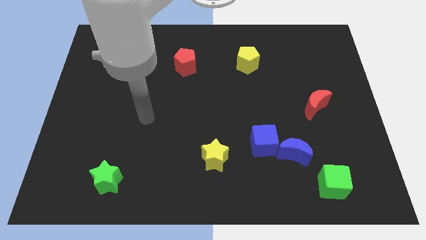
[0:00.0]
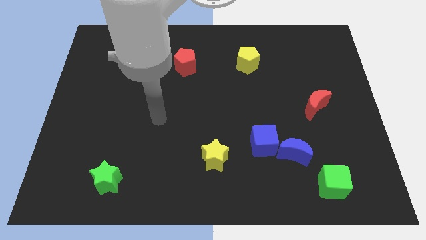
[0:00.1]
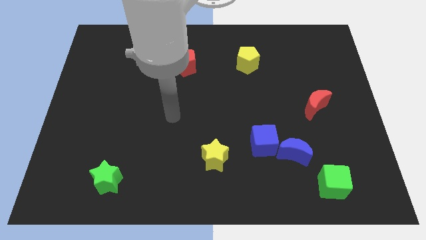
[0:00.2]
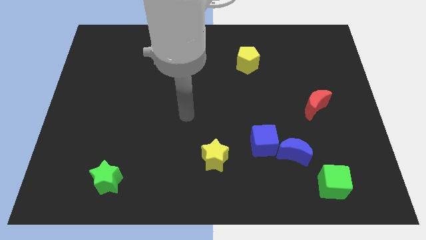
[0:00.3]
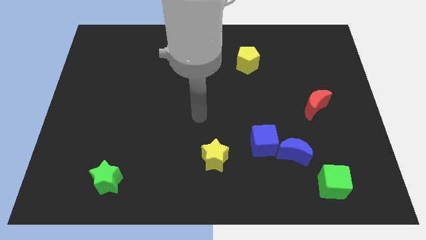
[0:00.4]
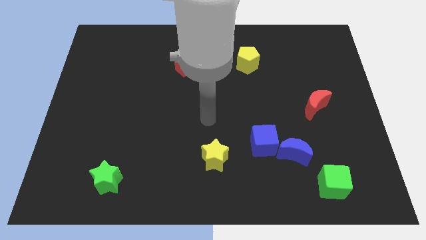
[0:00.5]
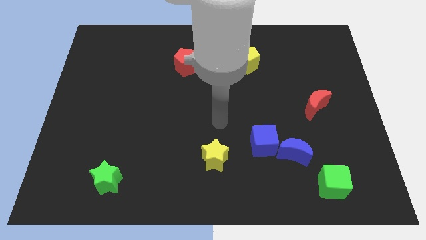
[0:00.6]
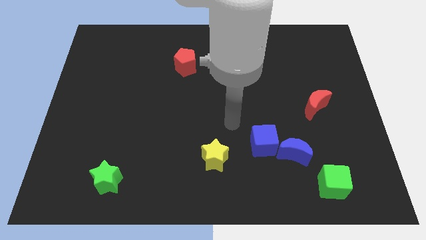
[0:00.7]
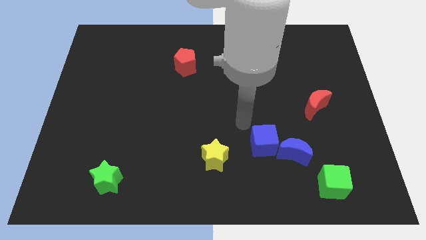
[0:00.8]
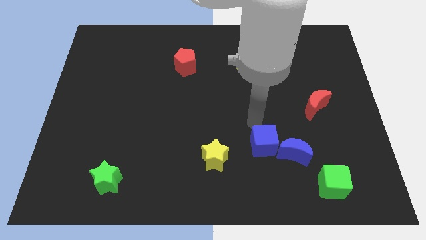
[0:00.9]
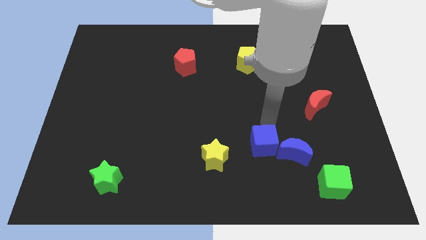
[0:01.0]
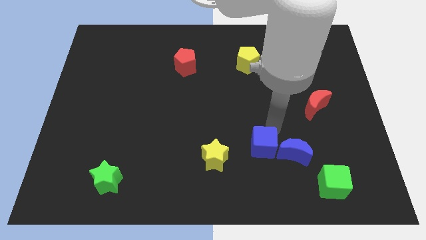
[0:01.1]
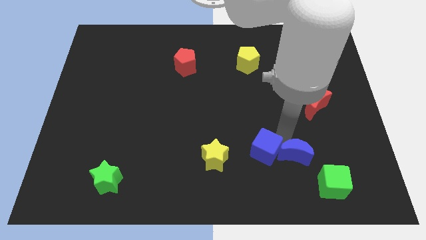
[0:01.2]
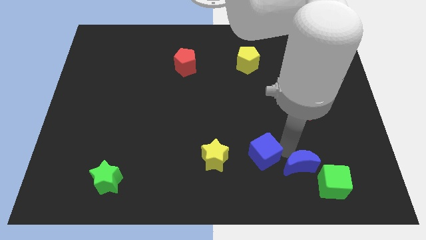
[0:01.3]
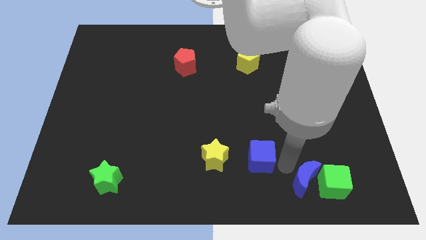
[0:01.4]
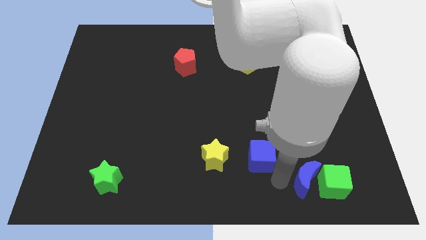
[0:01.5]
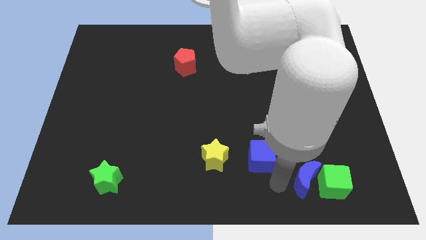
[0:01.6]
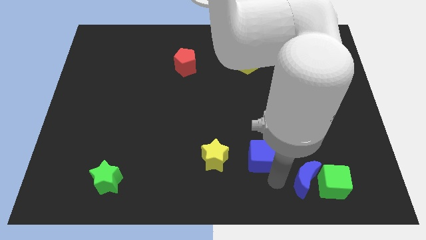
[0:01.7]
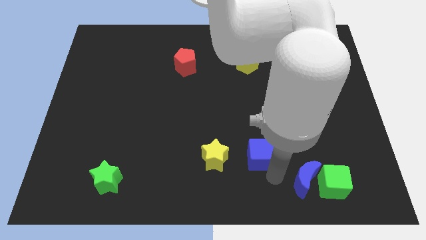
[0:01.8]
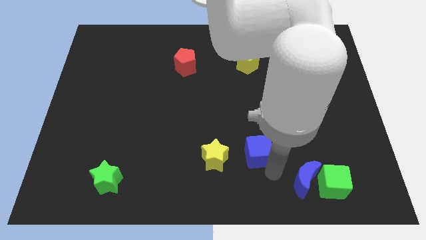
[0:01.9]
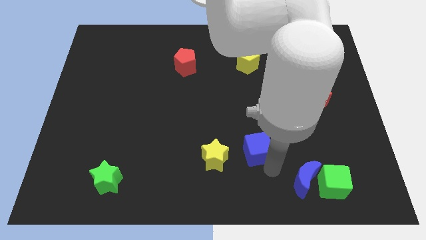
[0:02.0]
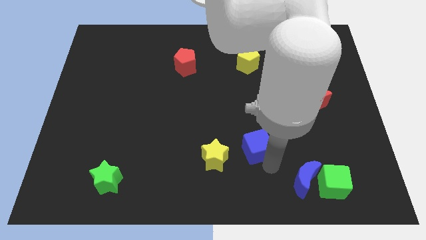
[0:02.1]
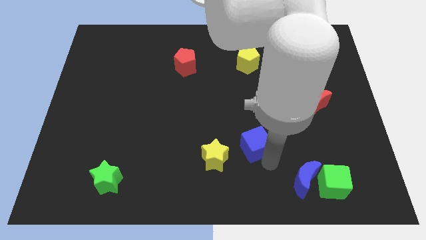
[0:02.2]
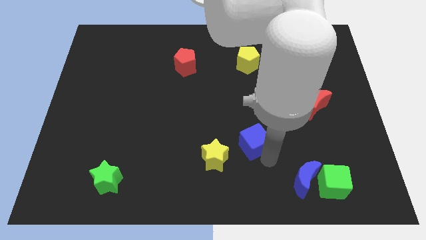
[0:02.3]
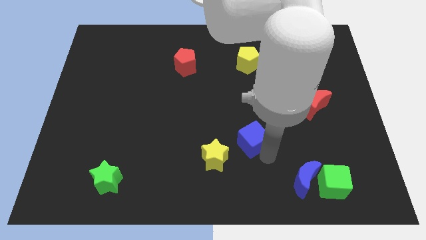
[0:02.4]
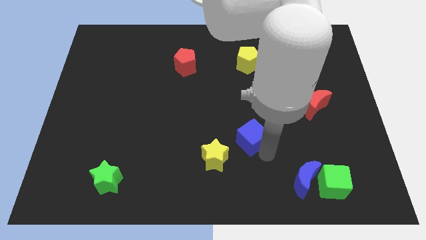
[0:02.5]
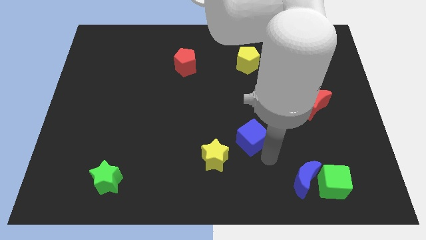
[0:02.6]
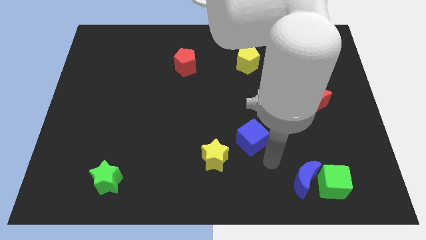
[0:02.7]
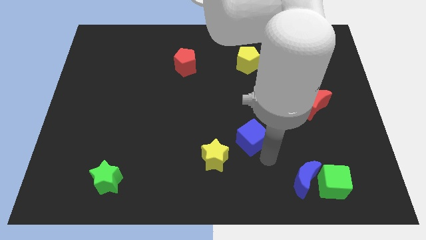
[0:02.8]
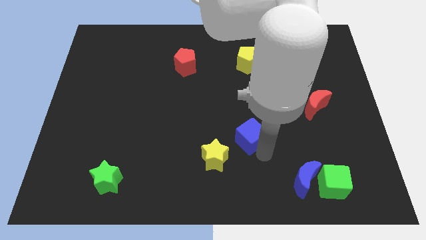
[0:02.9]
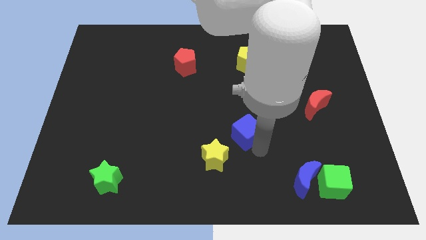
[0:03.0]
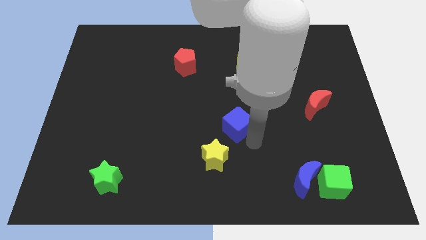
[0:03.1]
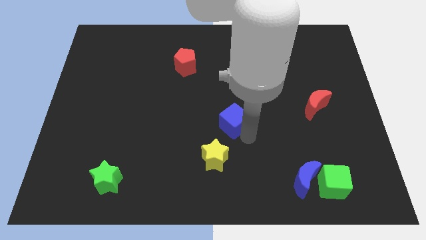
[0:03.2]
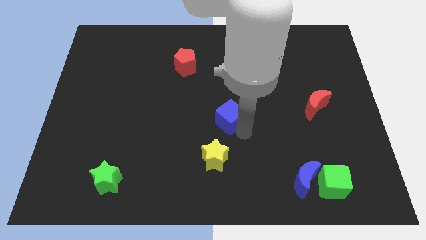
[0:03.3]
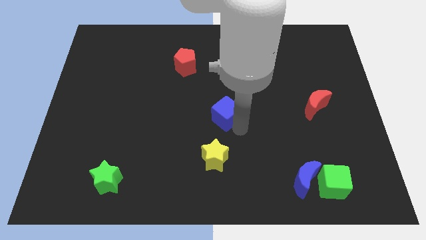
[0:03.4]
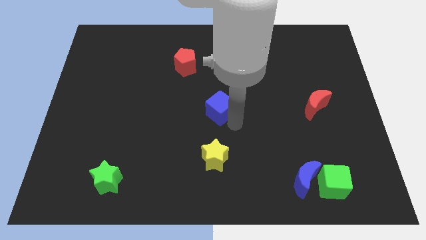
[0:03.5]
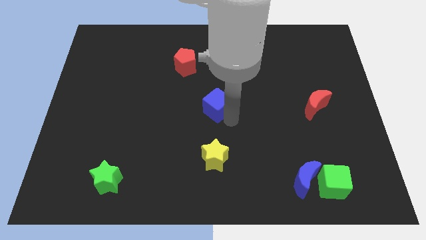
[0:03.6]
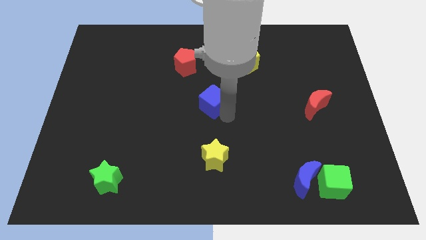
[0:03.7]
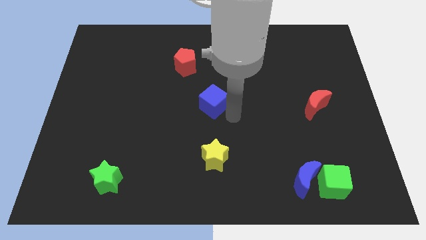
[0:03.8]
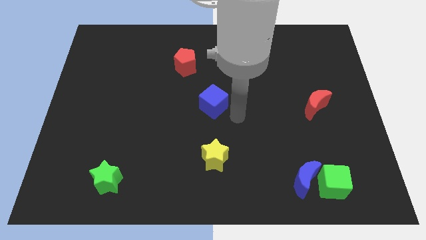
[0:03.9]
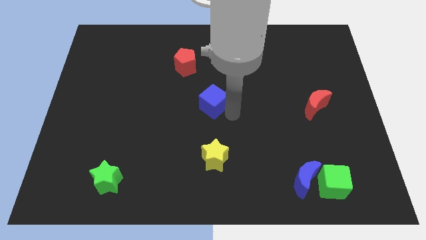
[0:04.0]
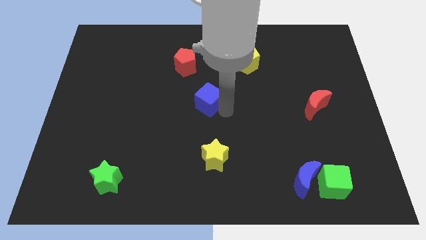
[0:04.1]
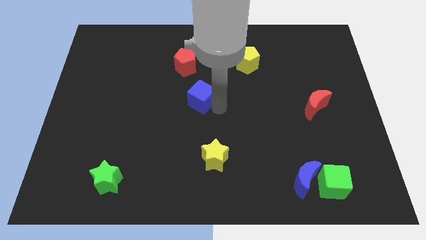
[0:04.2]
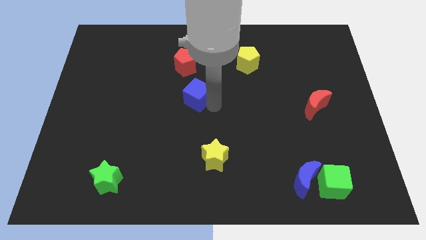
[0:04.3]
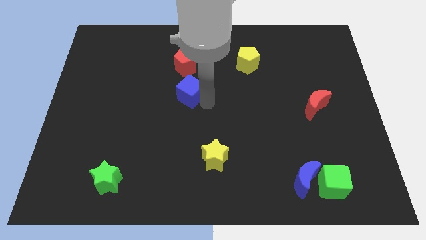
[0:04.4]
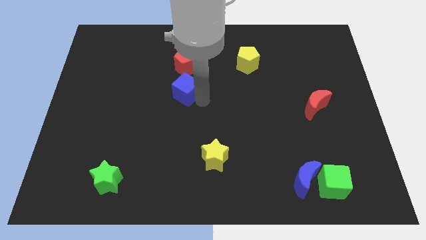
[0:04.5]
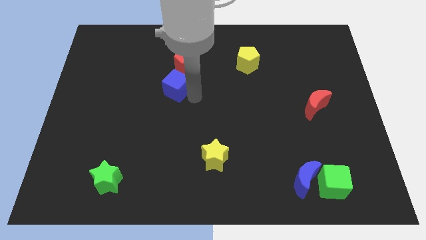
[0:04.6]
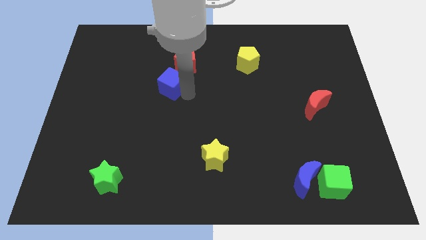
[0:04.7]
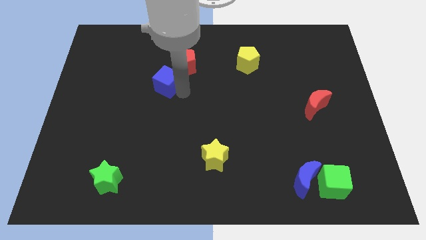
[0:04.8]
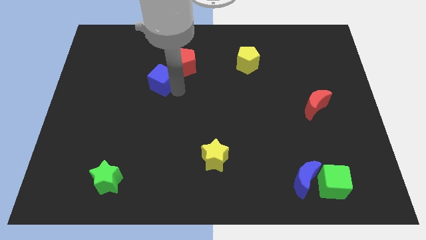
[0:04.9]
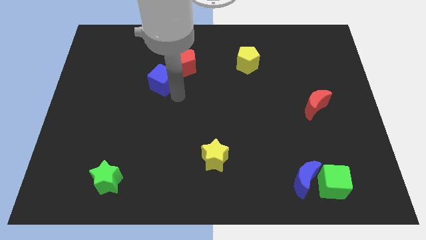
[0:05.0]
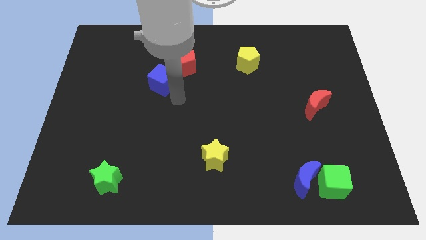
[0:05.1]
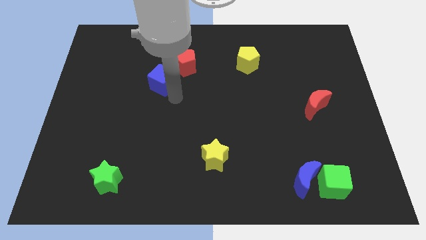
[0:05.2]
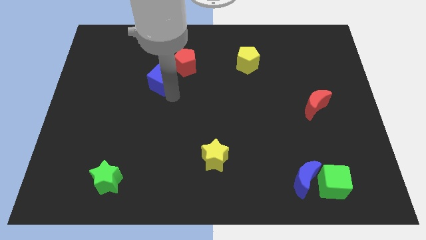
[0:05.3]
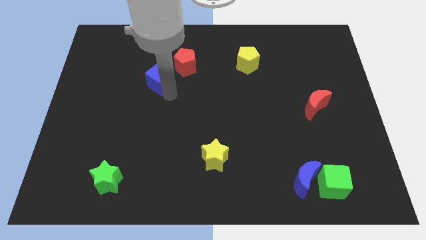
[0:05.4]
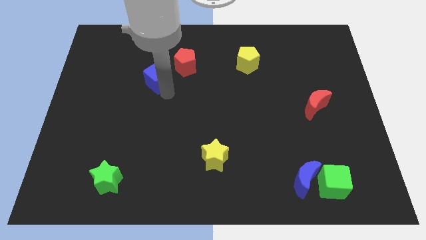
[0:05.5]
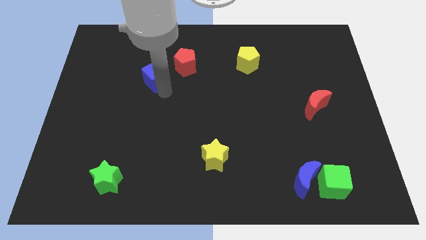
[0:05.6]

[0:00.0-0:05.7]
put the blue cube just left of the red pentagon

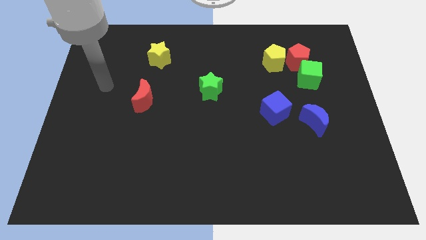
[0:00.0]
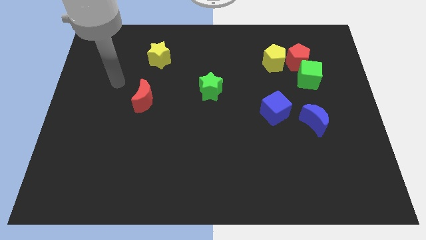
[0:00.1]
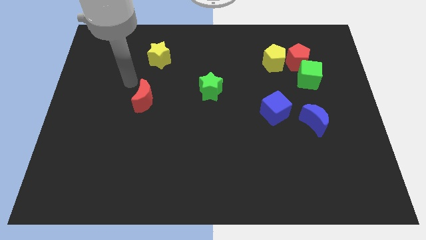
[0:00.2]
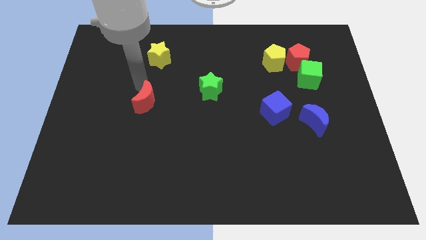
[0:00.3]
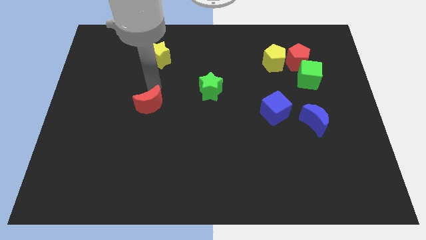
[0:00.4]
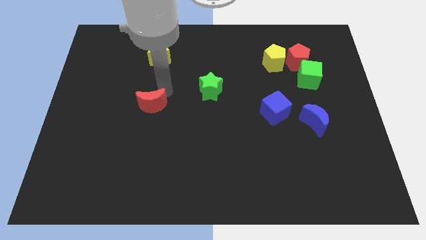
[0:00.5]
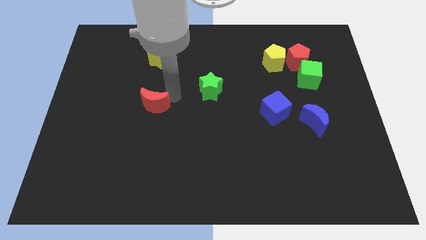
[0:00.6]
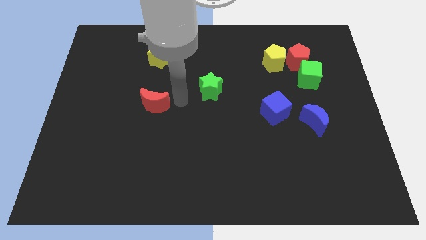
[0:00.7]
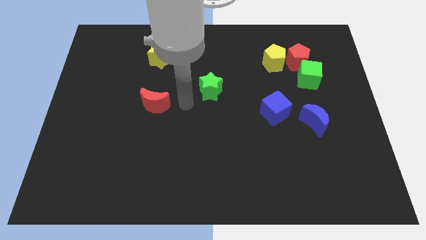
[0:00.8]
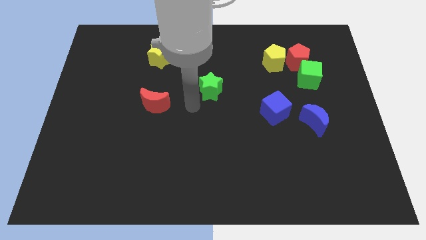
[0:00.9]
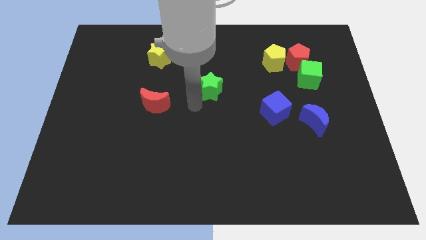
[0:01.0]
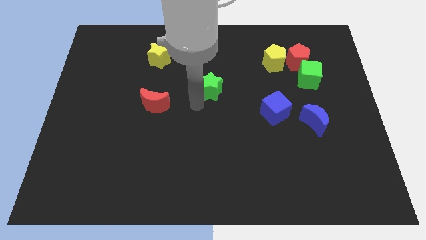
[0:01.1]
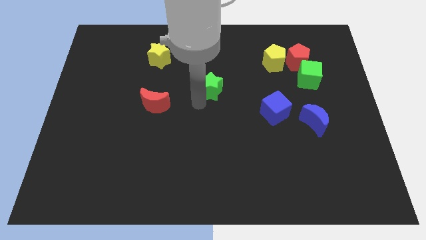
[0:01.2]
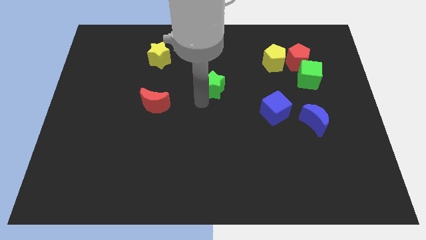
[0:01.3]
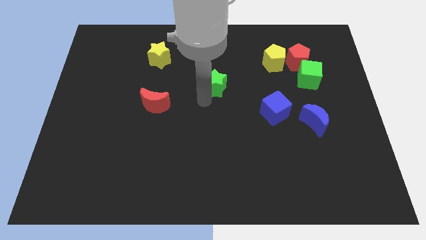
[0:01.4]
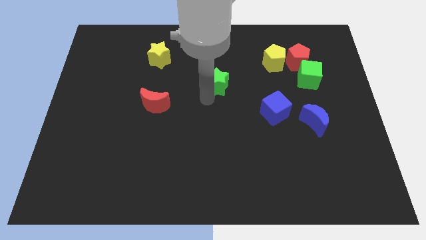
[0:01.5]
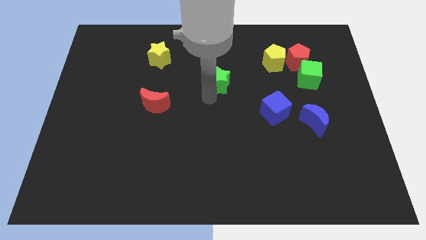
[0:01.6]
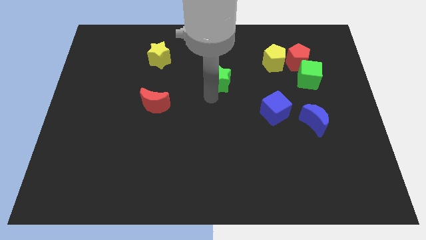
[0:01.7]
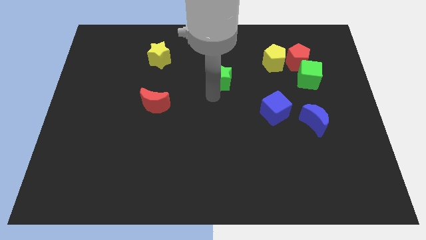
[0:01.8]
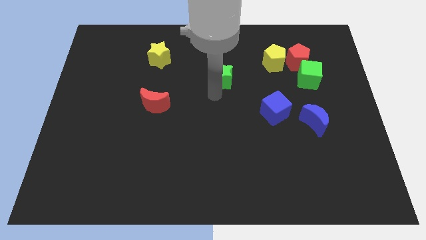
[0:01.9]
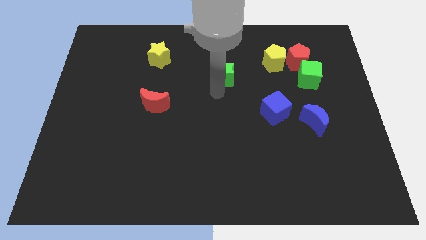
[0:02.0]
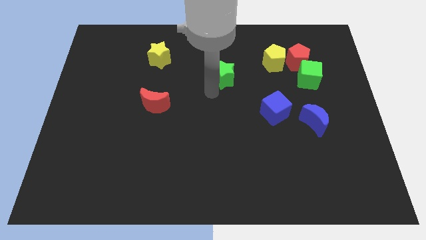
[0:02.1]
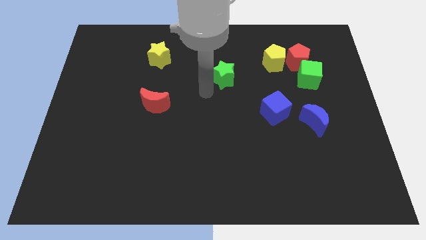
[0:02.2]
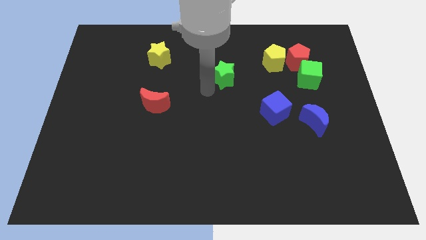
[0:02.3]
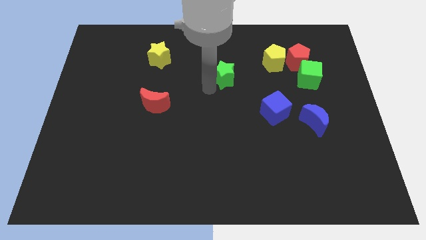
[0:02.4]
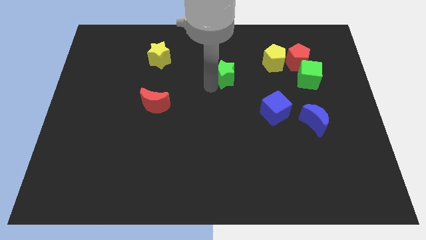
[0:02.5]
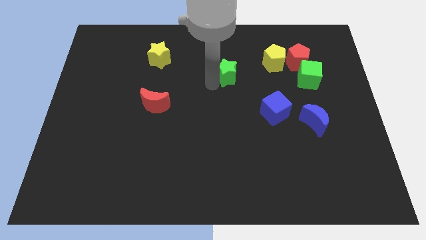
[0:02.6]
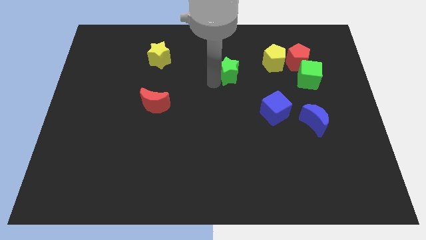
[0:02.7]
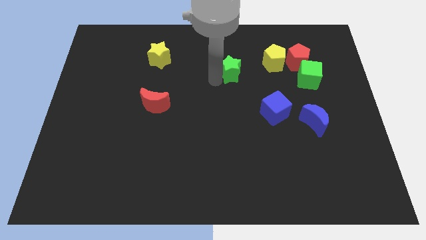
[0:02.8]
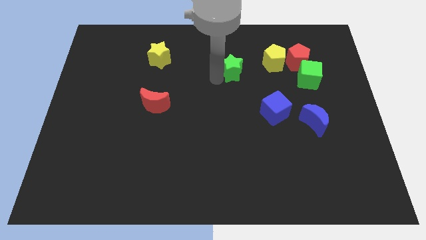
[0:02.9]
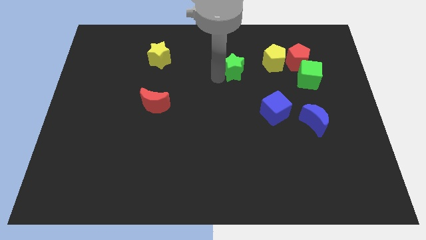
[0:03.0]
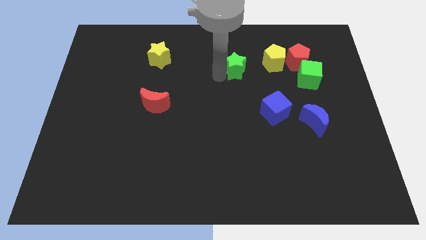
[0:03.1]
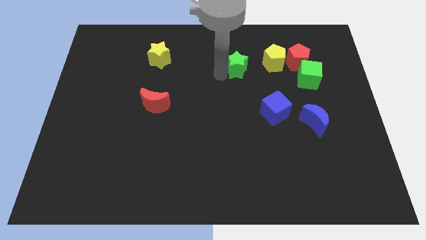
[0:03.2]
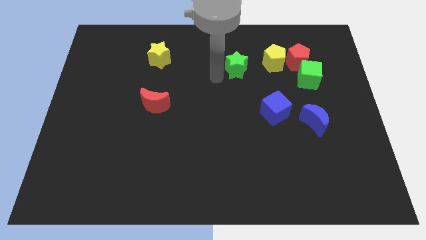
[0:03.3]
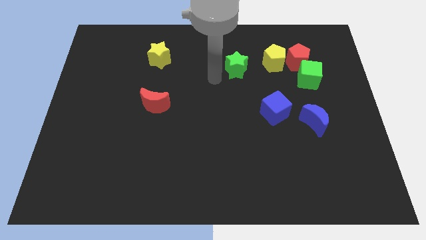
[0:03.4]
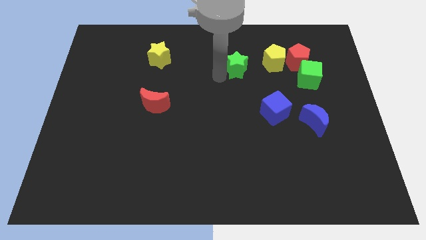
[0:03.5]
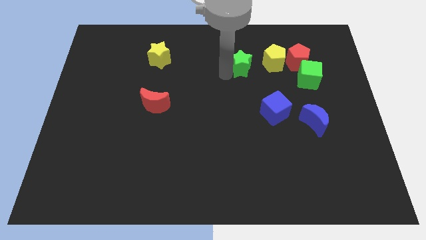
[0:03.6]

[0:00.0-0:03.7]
move the green star left of the red pentagon
